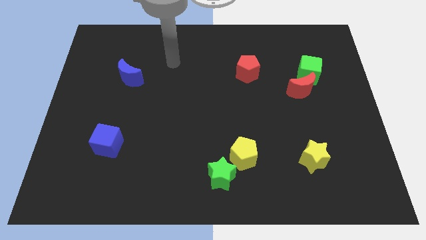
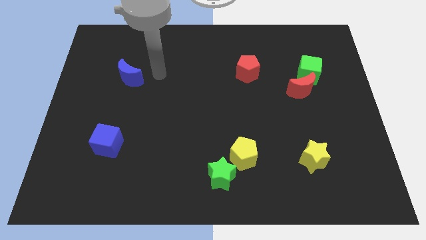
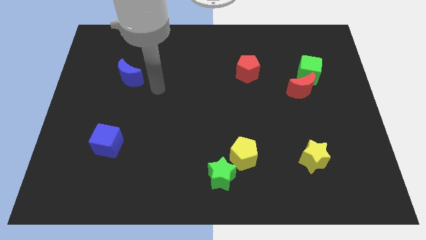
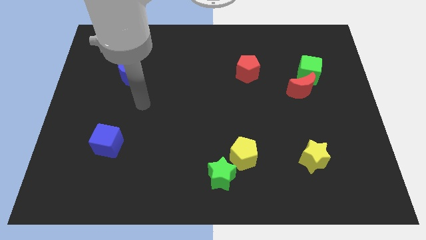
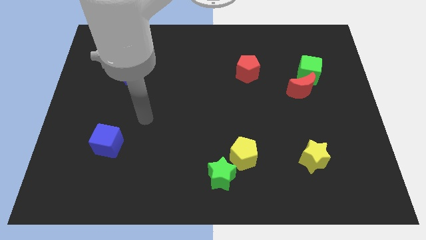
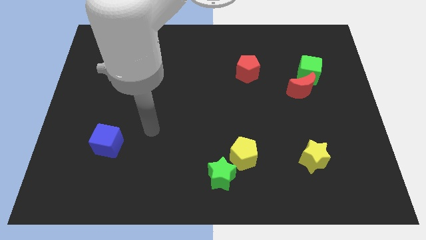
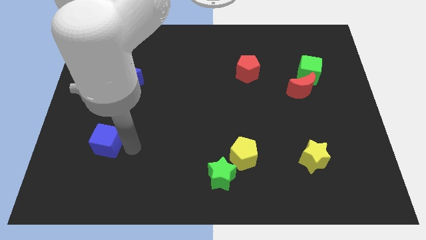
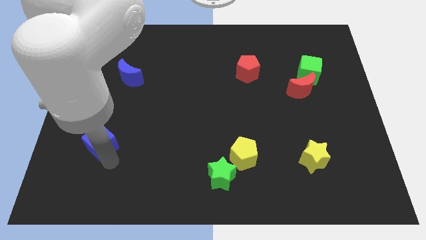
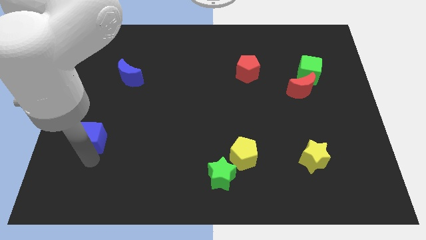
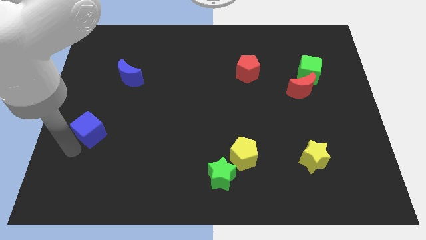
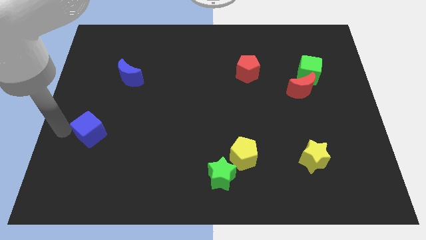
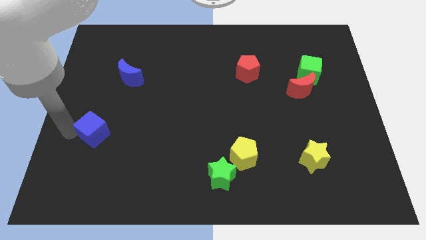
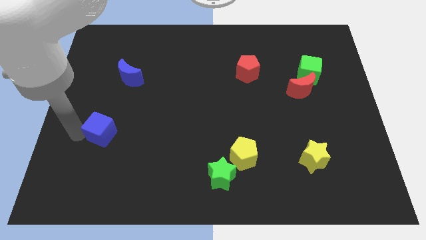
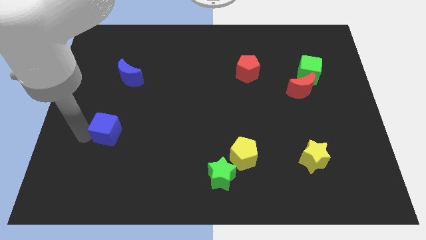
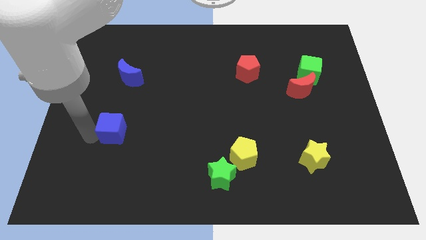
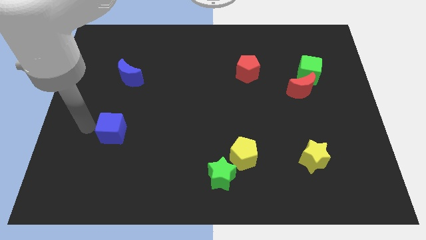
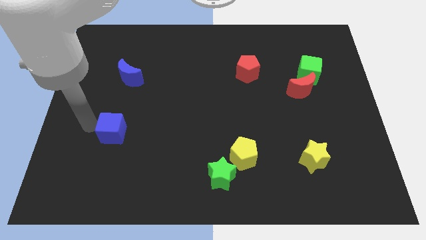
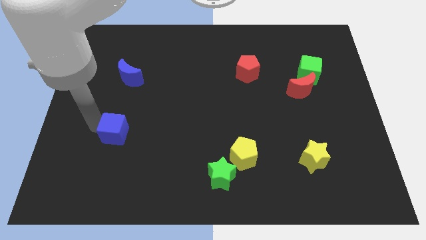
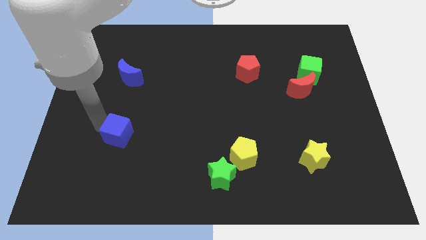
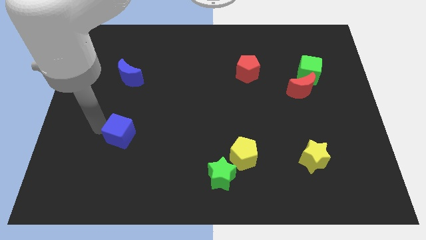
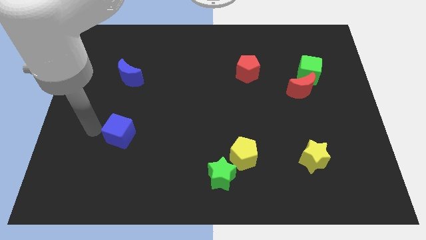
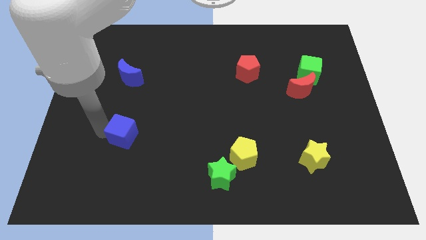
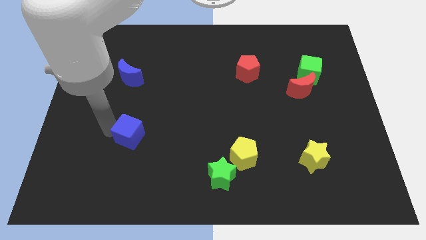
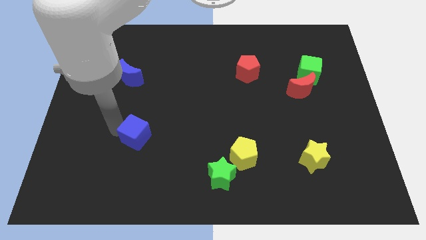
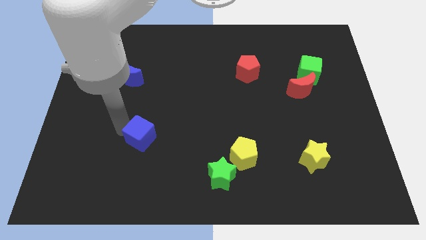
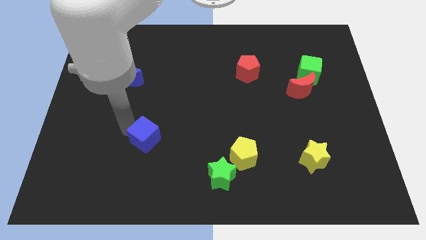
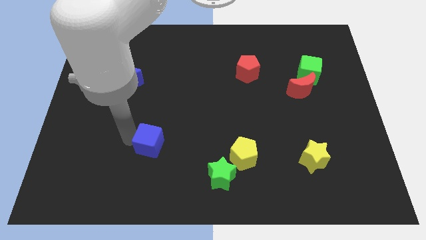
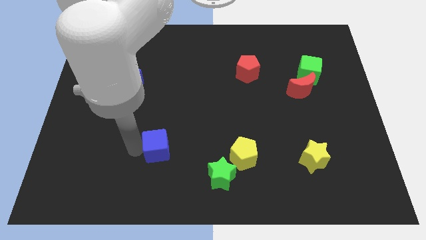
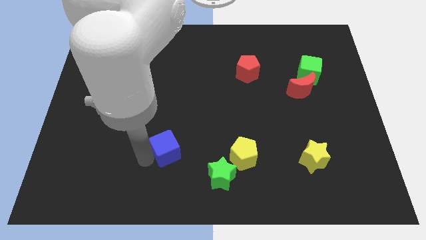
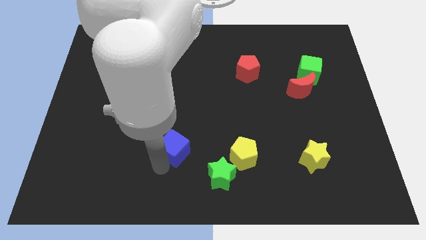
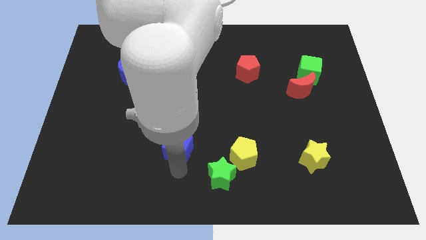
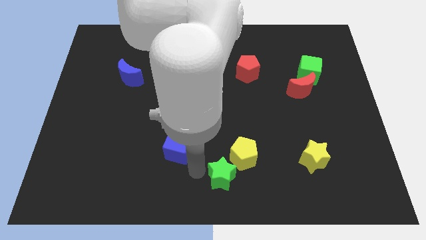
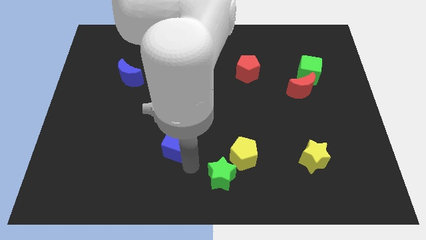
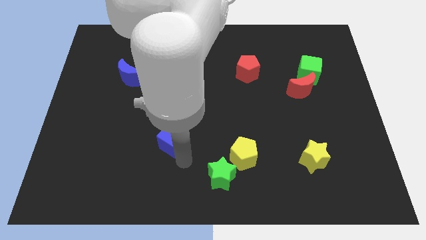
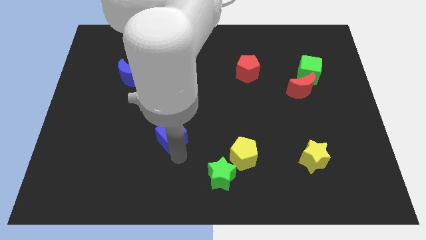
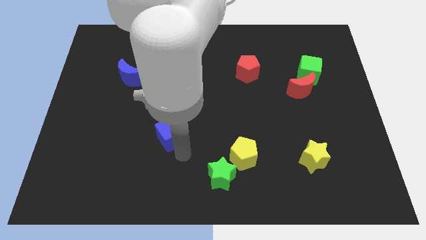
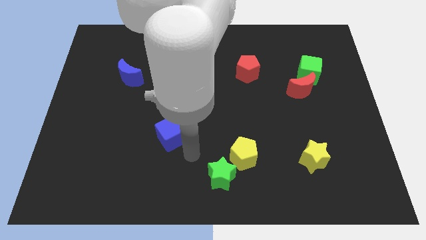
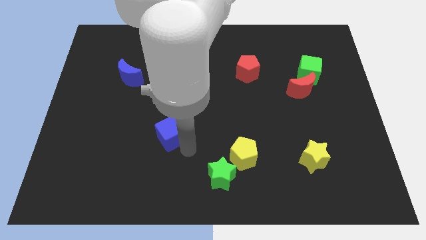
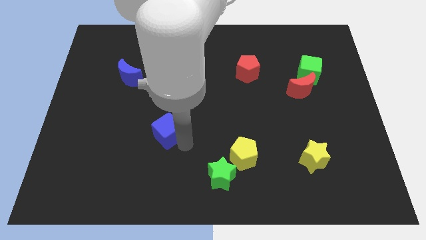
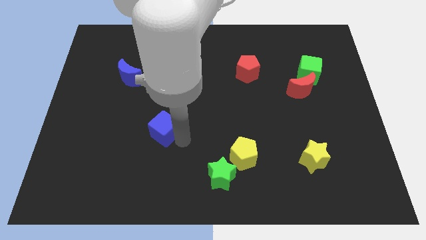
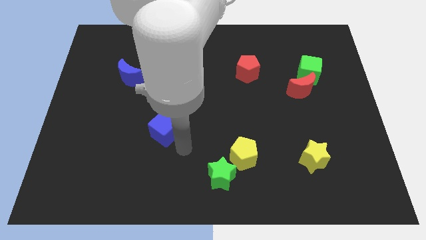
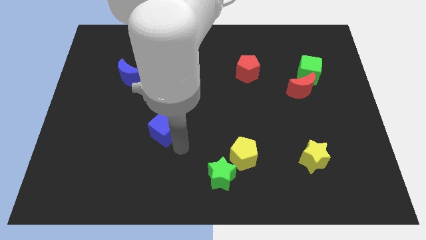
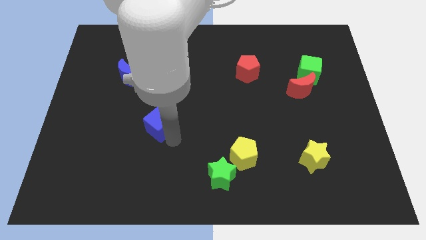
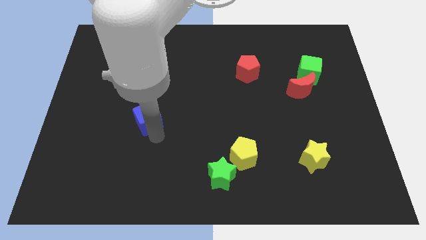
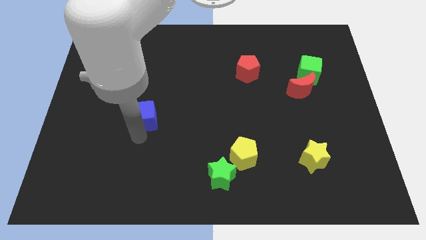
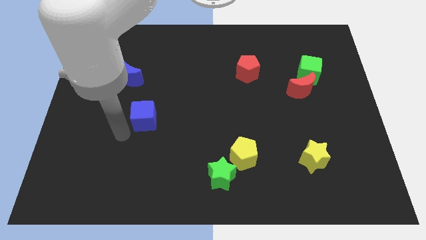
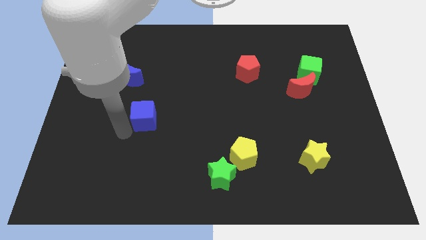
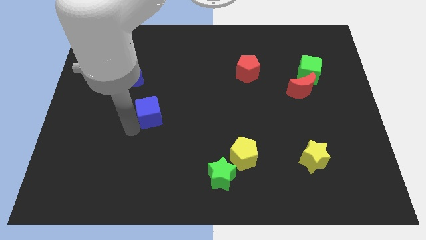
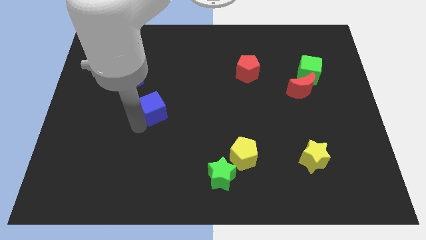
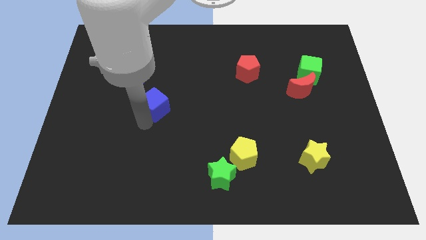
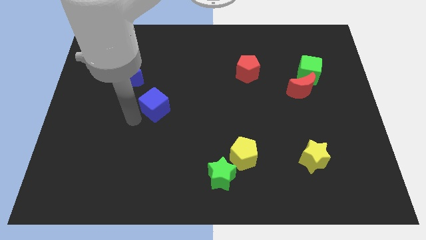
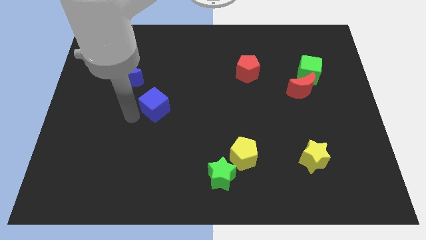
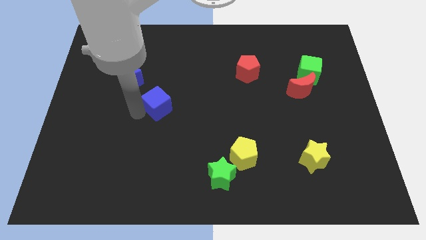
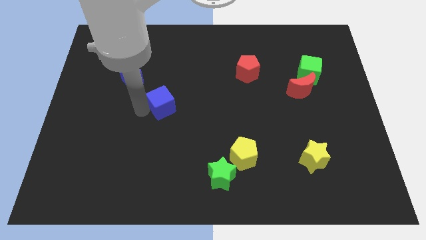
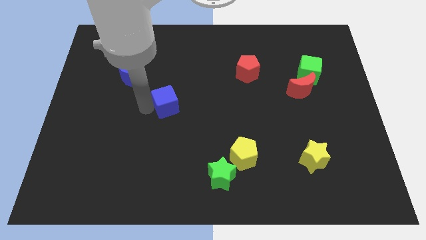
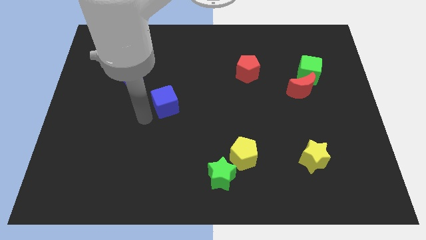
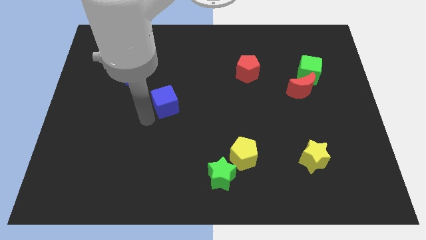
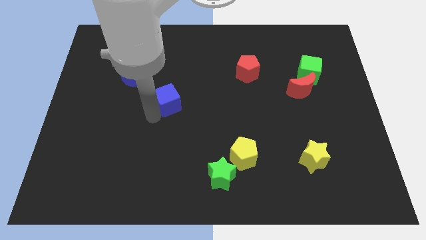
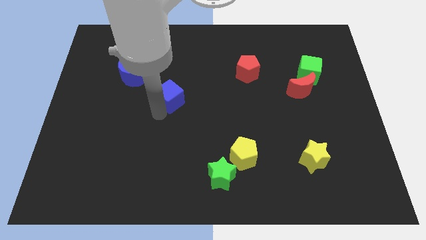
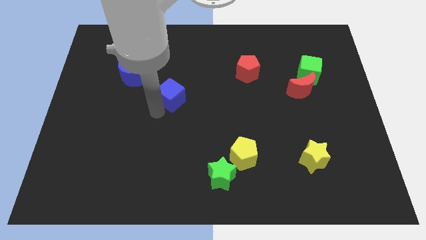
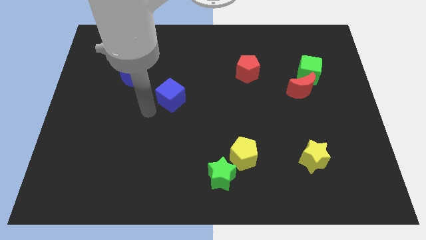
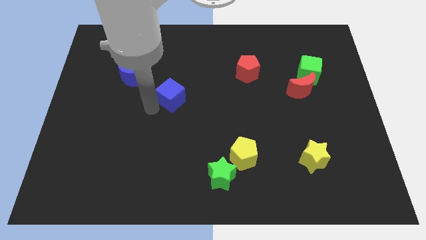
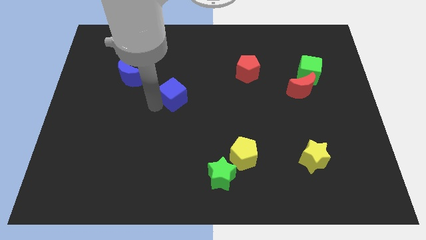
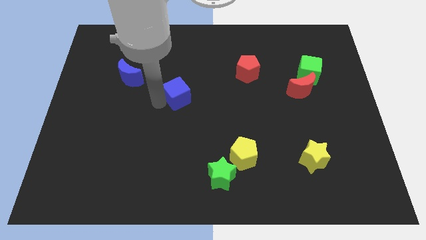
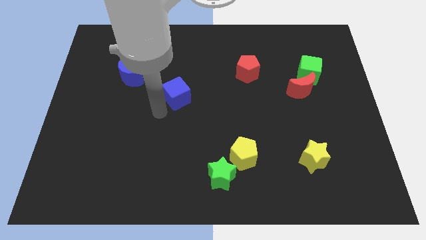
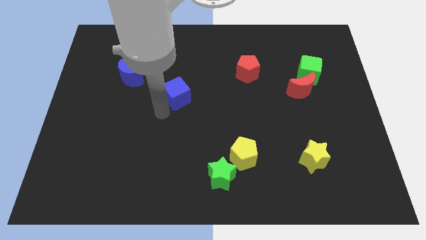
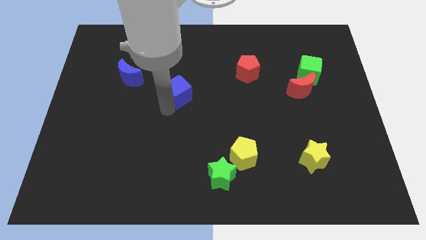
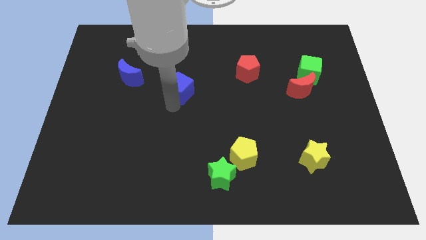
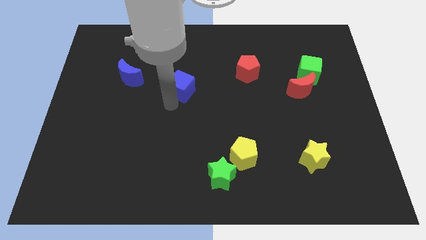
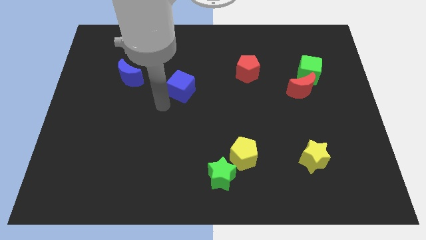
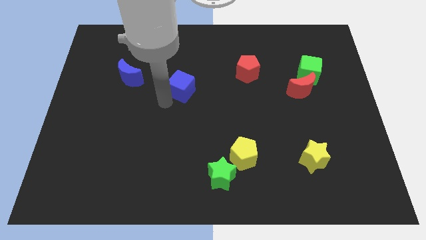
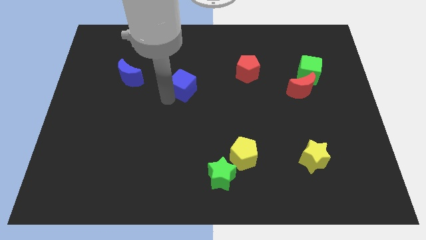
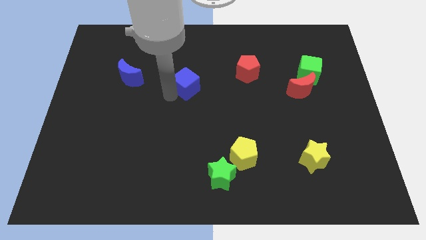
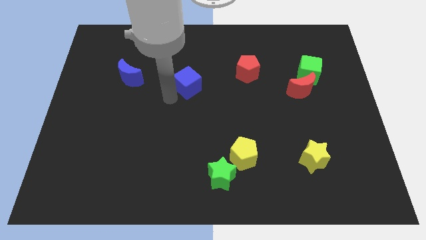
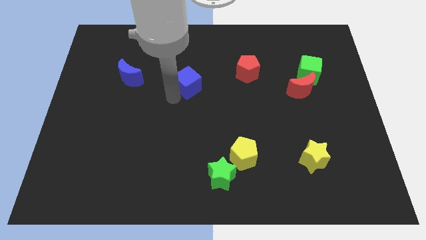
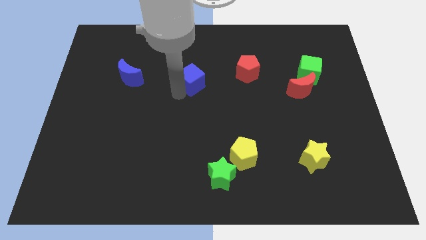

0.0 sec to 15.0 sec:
put the blue cube to the left side of the red pentagon
